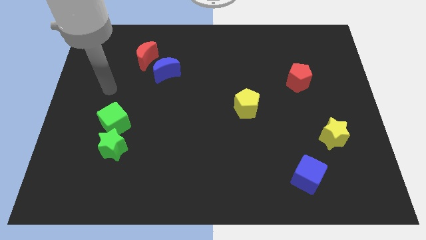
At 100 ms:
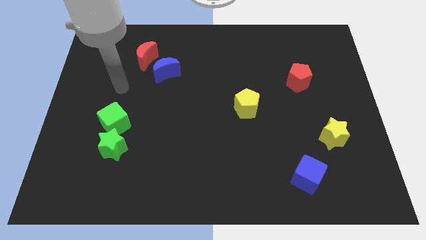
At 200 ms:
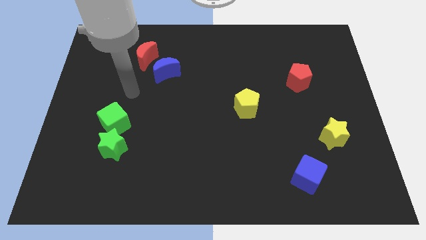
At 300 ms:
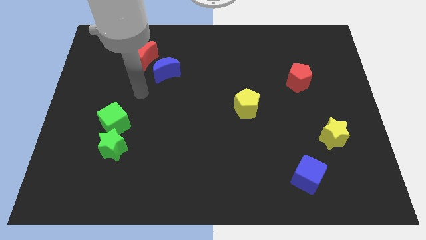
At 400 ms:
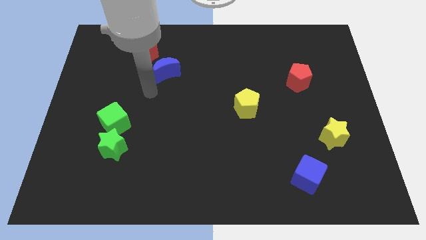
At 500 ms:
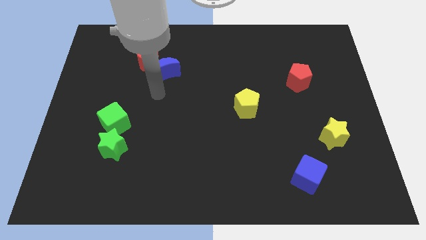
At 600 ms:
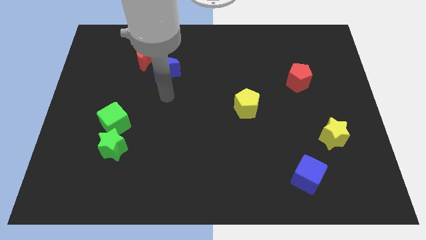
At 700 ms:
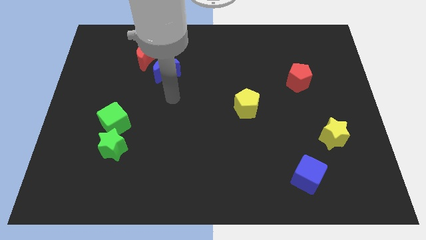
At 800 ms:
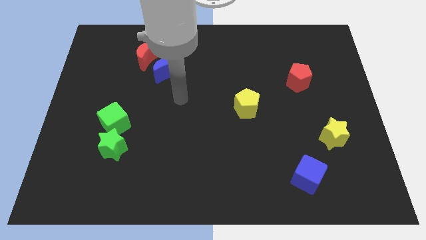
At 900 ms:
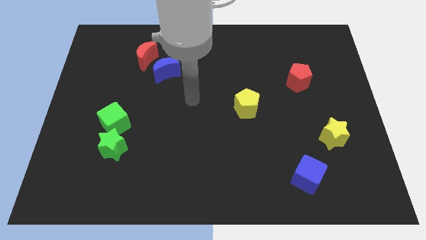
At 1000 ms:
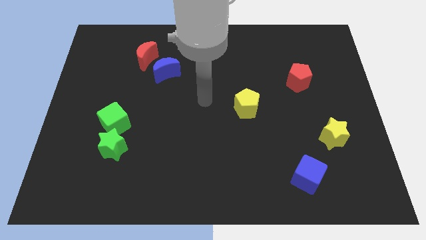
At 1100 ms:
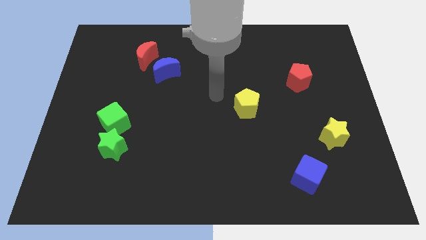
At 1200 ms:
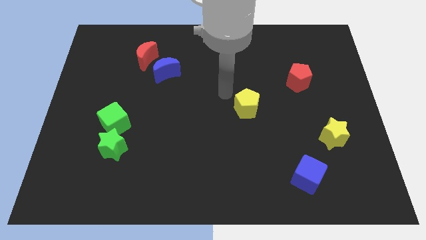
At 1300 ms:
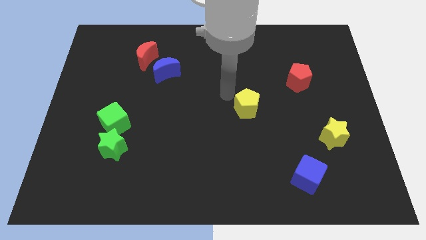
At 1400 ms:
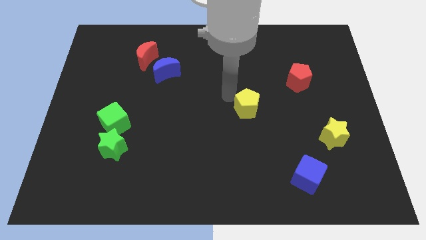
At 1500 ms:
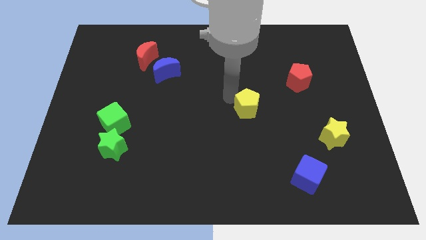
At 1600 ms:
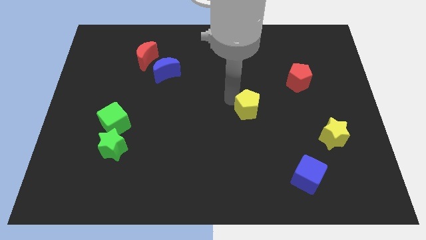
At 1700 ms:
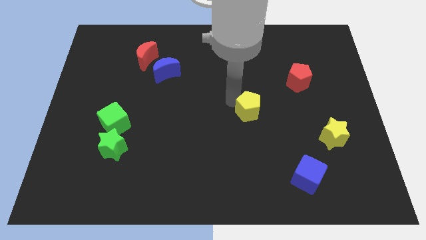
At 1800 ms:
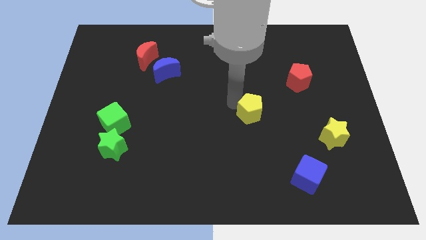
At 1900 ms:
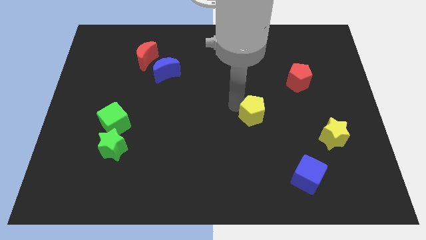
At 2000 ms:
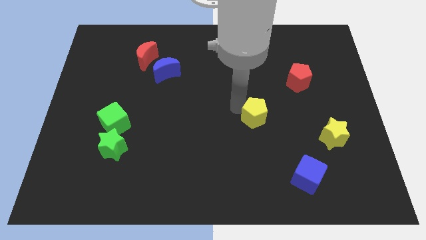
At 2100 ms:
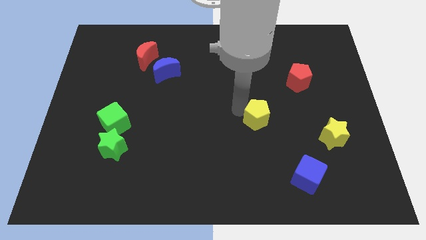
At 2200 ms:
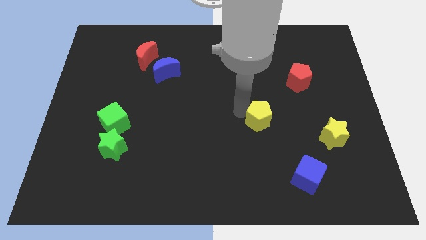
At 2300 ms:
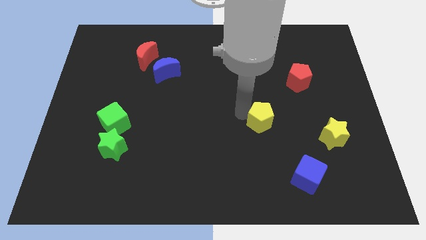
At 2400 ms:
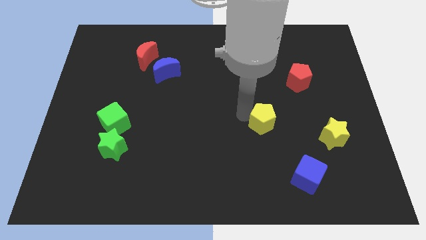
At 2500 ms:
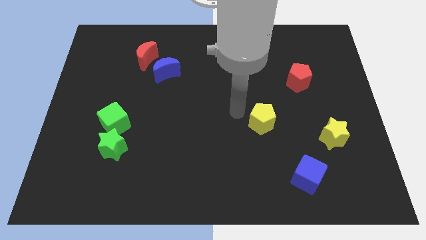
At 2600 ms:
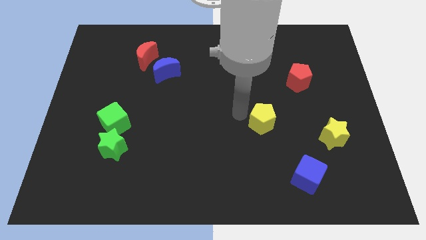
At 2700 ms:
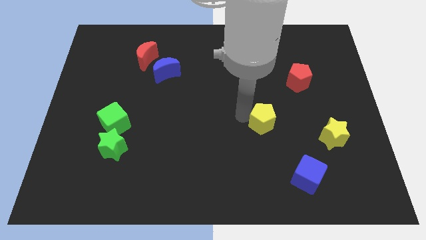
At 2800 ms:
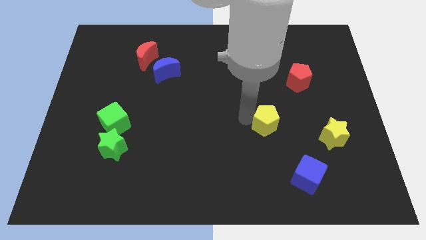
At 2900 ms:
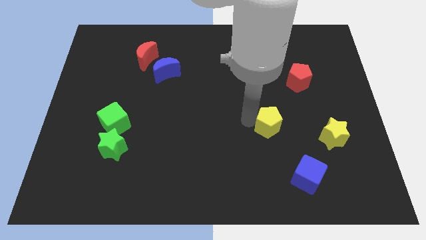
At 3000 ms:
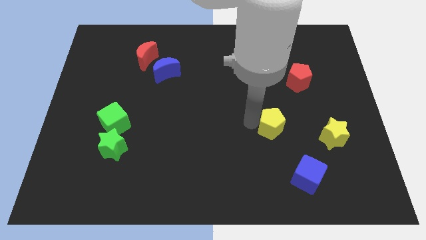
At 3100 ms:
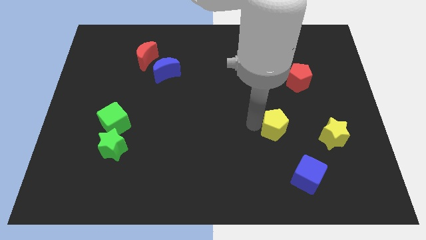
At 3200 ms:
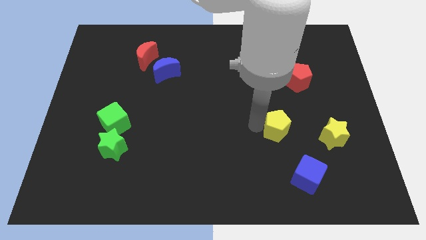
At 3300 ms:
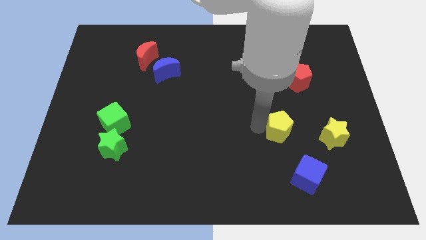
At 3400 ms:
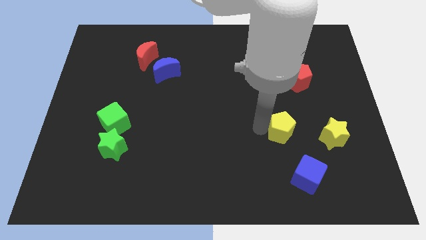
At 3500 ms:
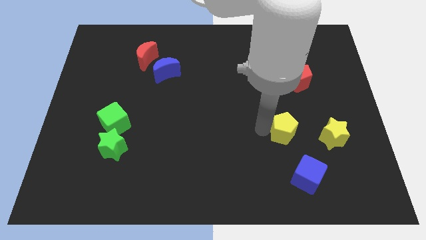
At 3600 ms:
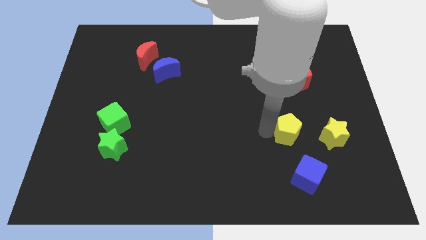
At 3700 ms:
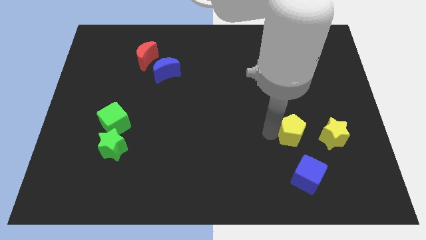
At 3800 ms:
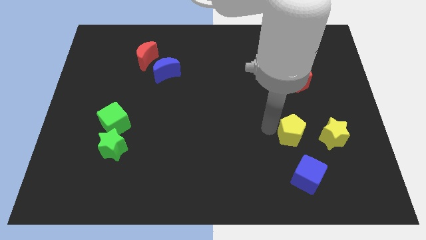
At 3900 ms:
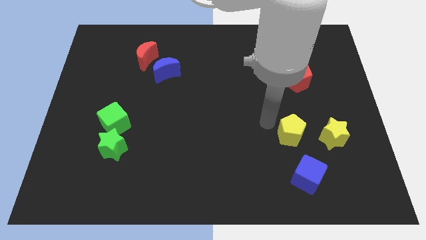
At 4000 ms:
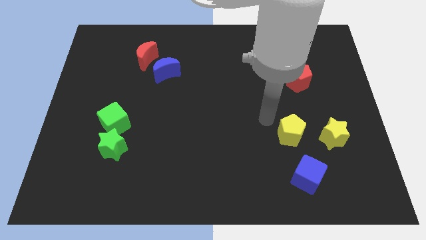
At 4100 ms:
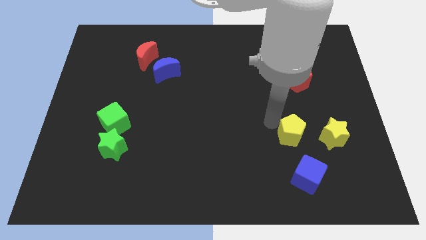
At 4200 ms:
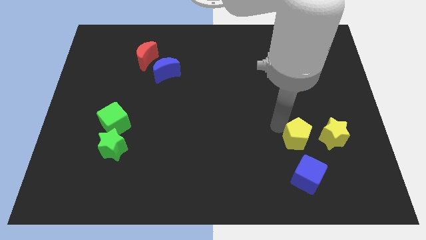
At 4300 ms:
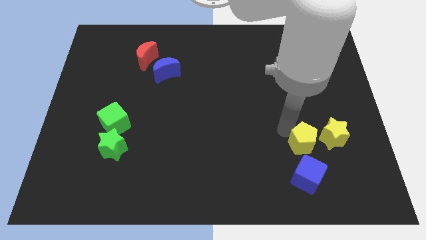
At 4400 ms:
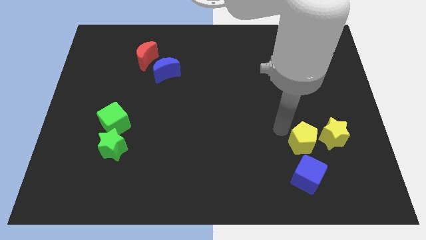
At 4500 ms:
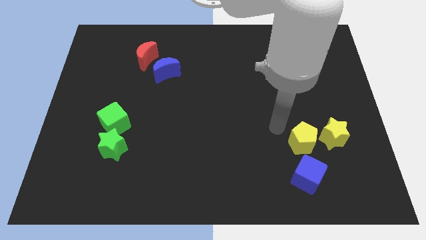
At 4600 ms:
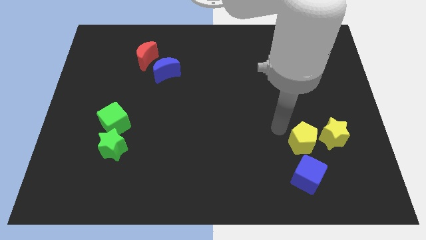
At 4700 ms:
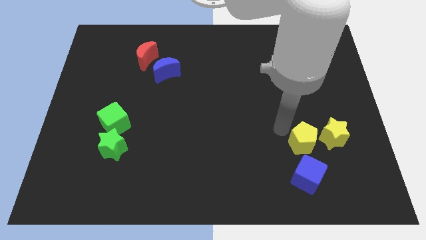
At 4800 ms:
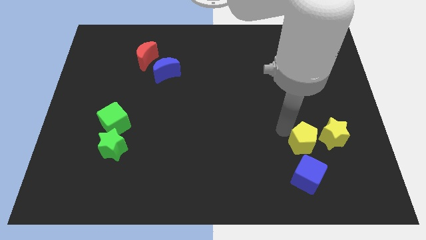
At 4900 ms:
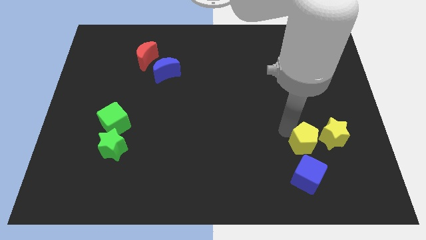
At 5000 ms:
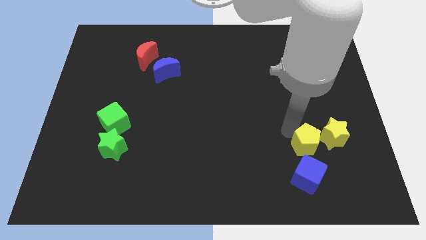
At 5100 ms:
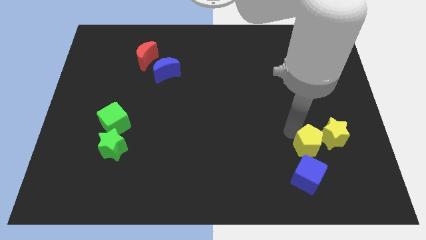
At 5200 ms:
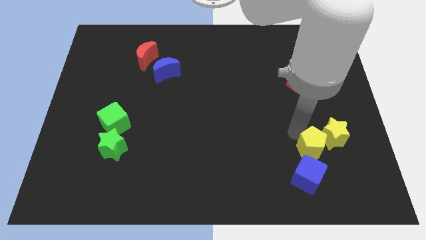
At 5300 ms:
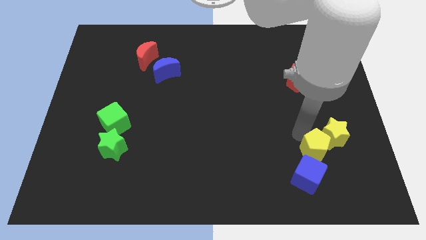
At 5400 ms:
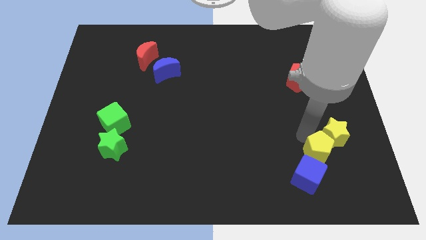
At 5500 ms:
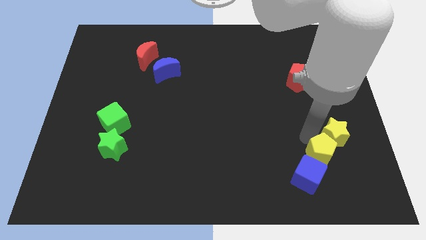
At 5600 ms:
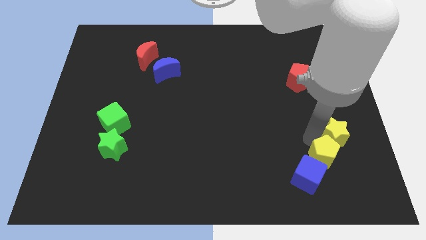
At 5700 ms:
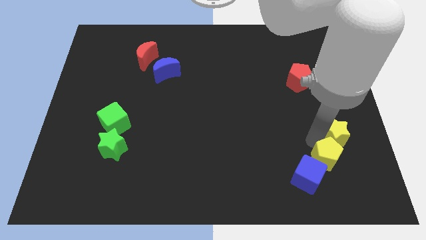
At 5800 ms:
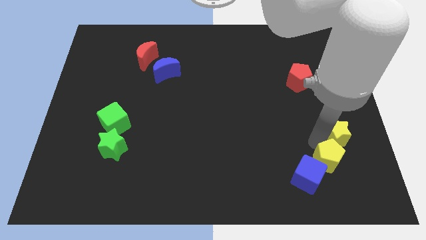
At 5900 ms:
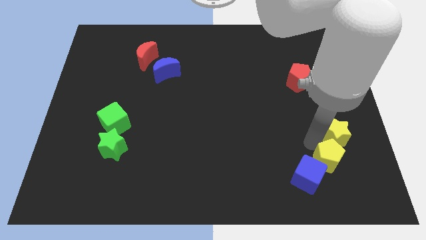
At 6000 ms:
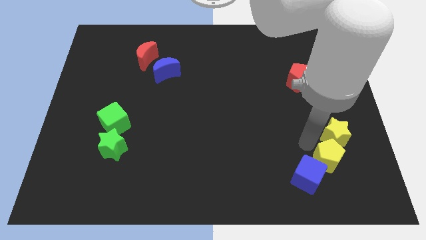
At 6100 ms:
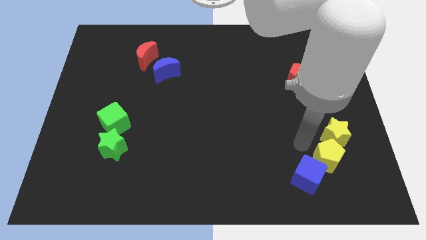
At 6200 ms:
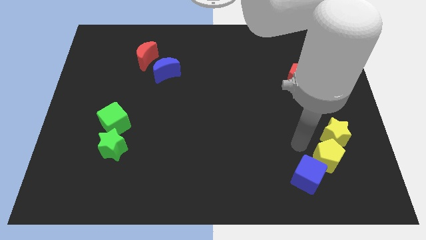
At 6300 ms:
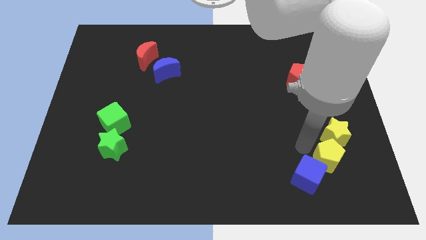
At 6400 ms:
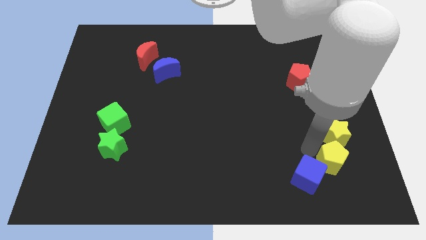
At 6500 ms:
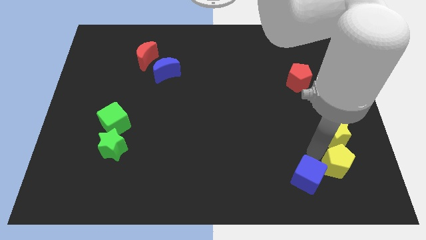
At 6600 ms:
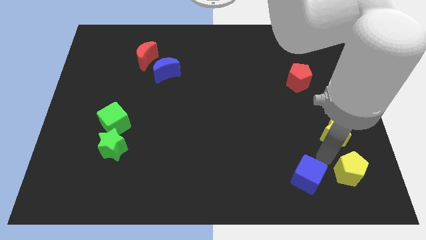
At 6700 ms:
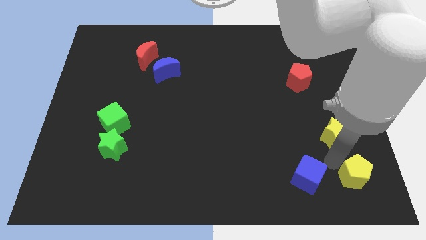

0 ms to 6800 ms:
put the yellow pentagon to the bottom right
